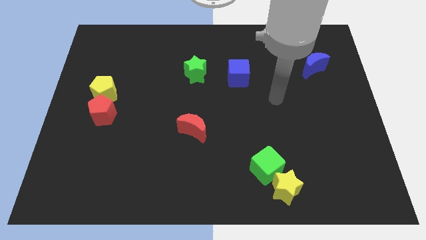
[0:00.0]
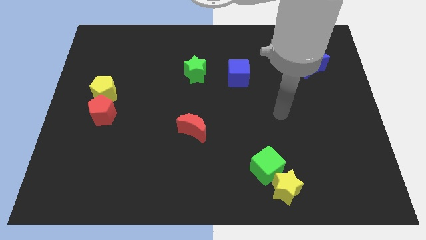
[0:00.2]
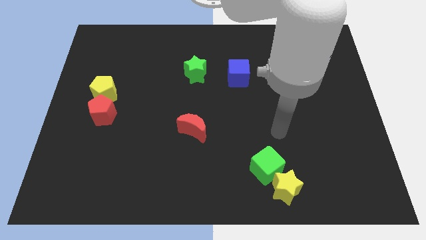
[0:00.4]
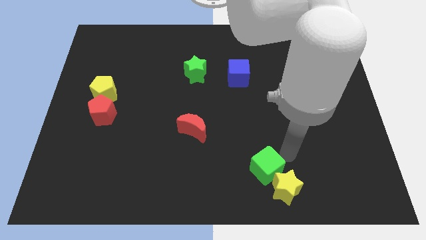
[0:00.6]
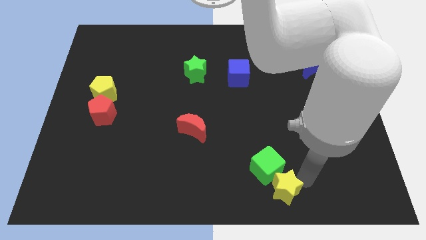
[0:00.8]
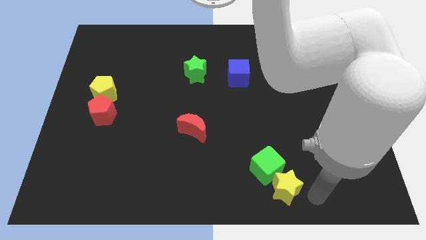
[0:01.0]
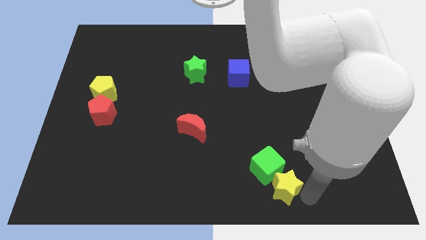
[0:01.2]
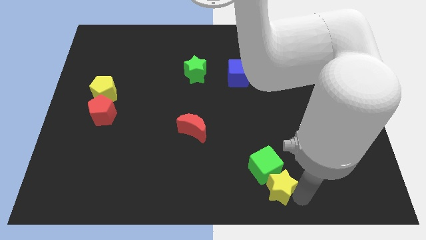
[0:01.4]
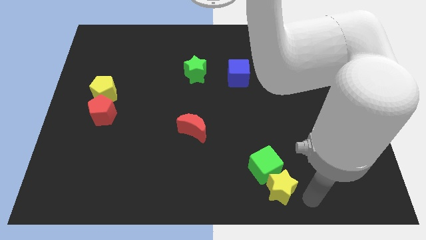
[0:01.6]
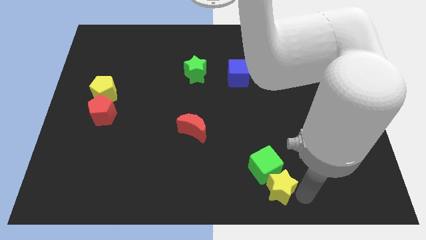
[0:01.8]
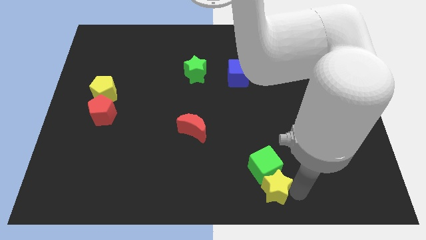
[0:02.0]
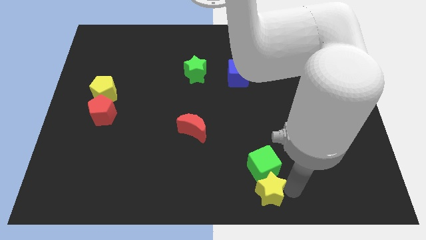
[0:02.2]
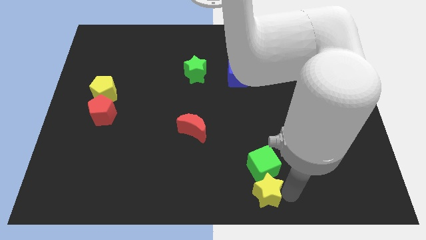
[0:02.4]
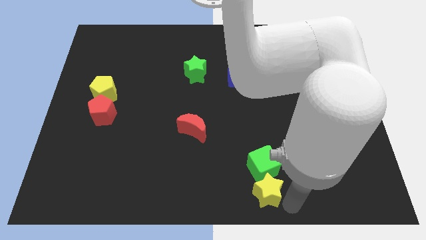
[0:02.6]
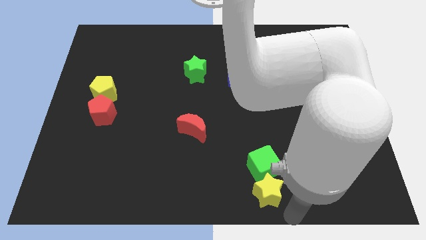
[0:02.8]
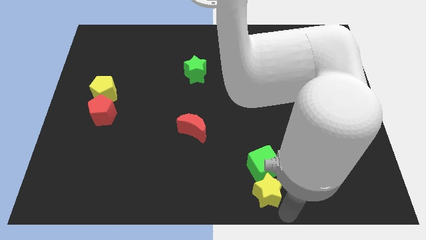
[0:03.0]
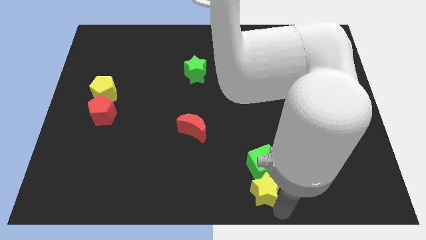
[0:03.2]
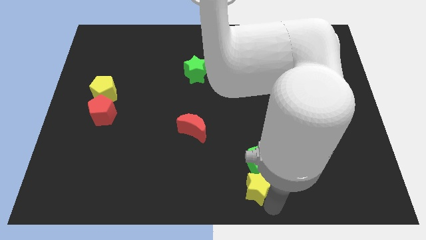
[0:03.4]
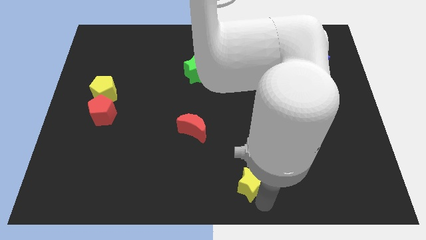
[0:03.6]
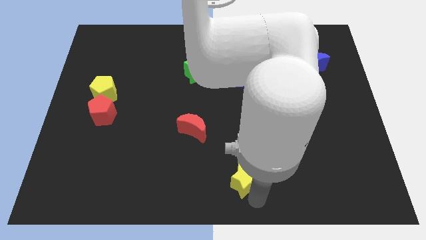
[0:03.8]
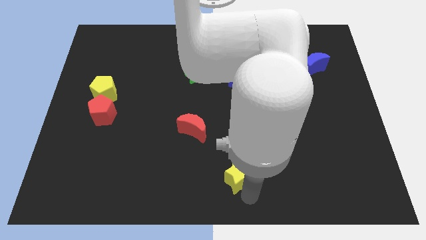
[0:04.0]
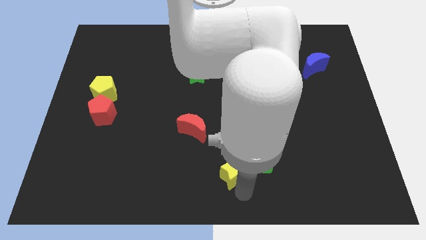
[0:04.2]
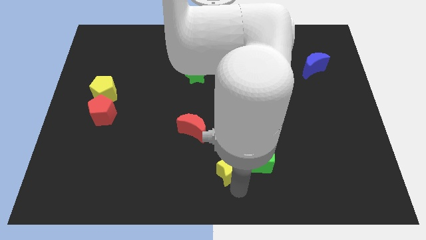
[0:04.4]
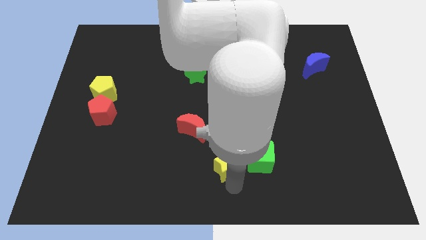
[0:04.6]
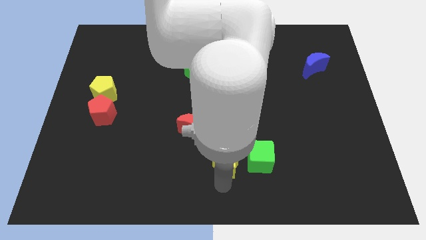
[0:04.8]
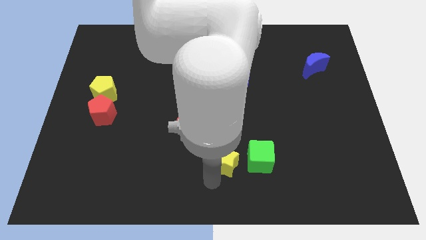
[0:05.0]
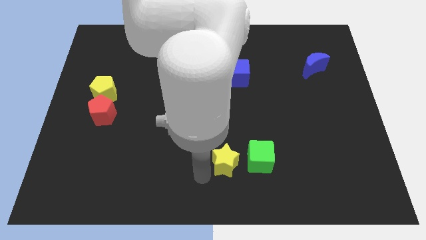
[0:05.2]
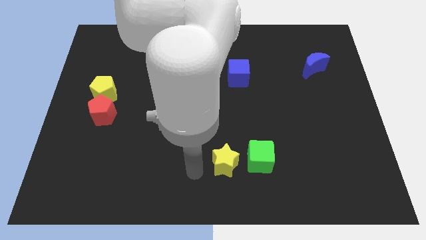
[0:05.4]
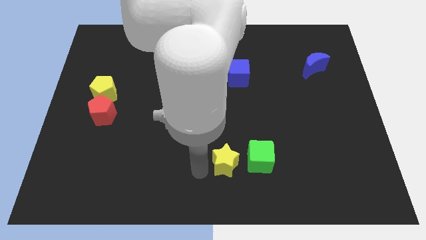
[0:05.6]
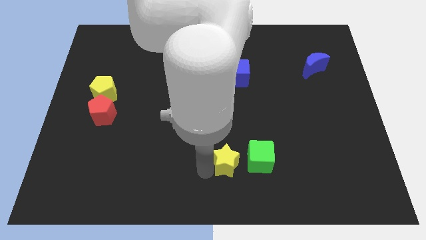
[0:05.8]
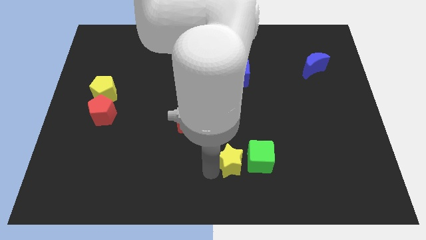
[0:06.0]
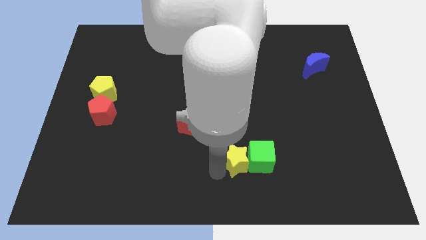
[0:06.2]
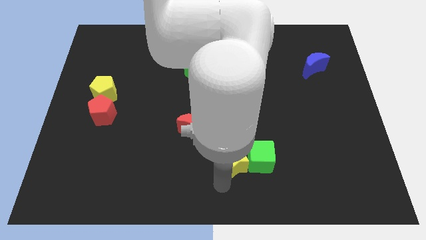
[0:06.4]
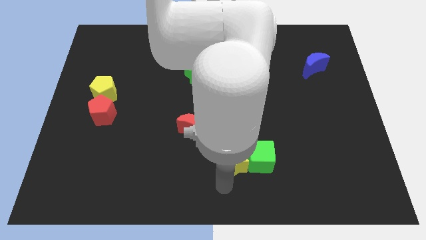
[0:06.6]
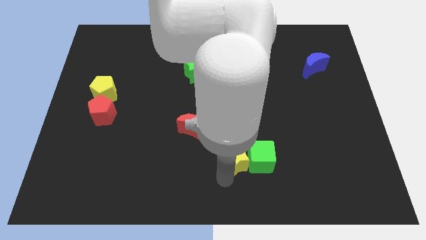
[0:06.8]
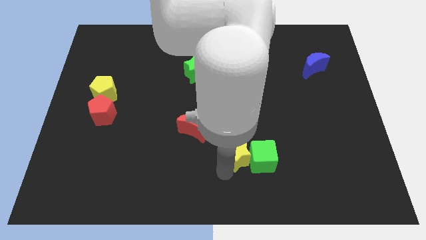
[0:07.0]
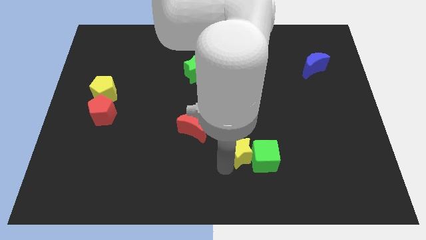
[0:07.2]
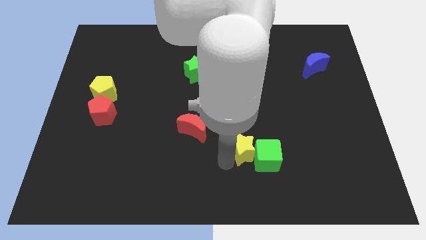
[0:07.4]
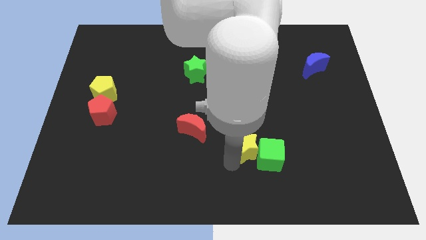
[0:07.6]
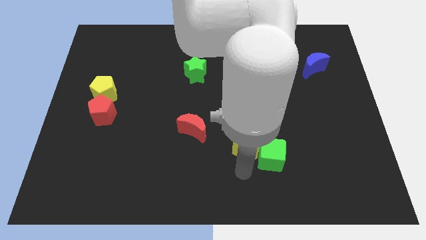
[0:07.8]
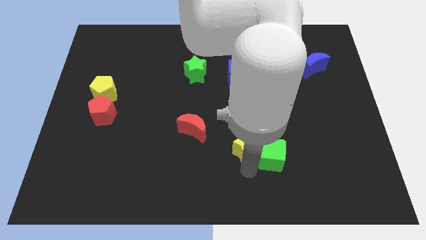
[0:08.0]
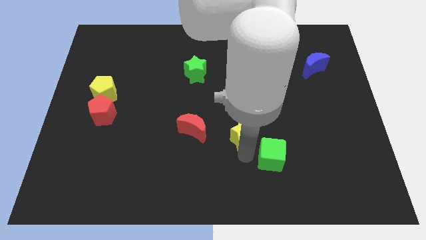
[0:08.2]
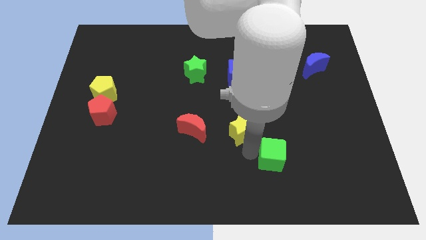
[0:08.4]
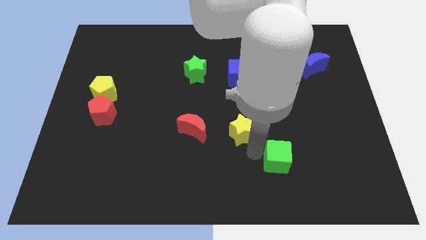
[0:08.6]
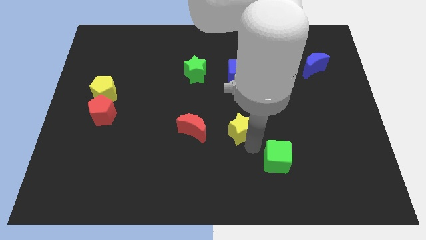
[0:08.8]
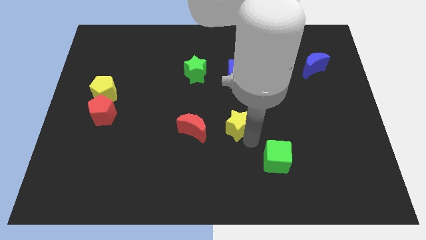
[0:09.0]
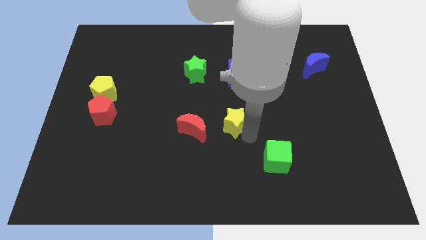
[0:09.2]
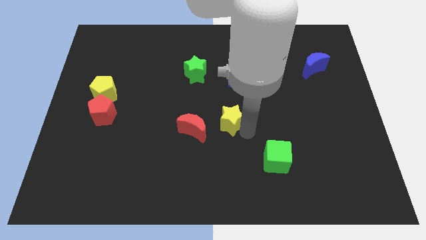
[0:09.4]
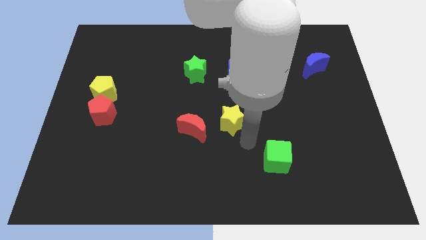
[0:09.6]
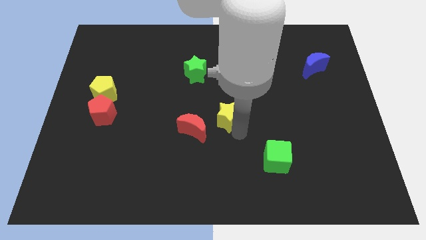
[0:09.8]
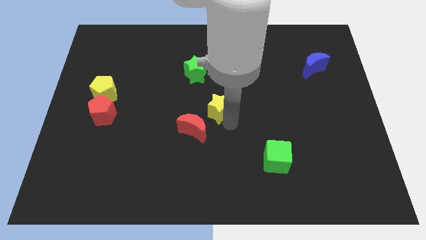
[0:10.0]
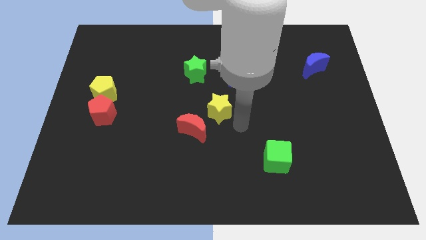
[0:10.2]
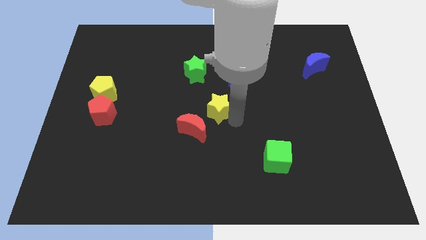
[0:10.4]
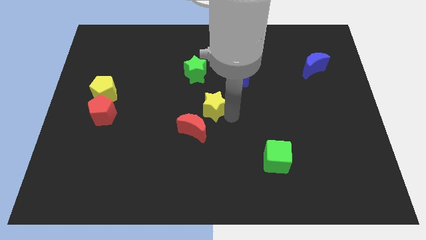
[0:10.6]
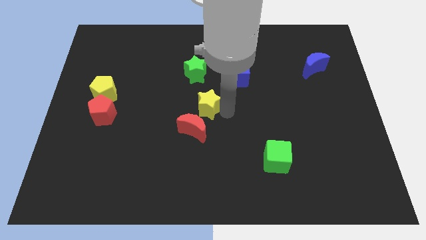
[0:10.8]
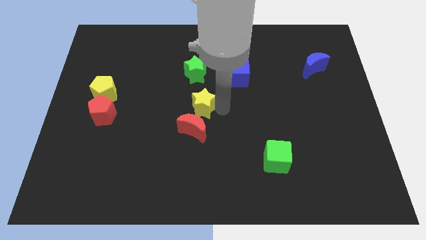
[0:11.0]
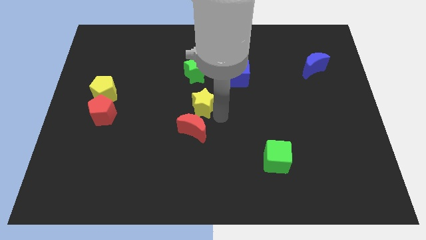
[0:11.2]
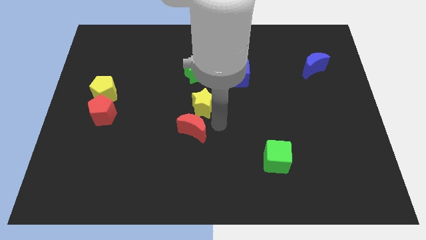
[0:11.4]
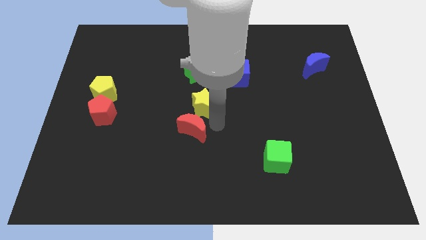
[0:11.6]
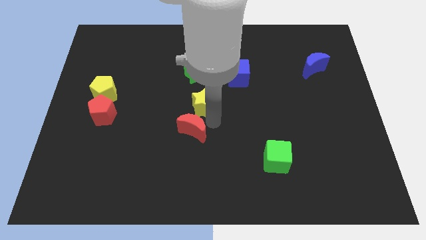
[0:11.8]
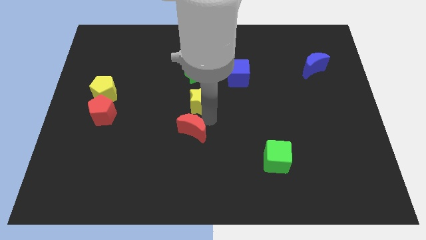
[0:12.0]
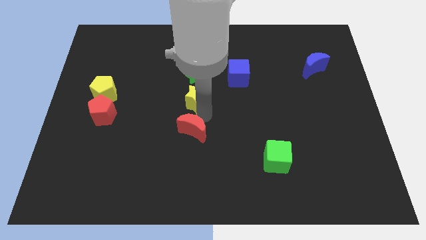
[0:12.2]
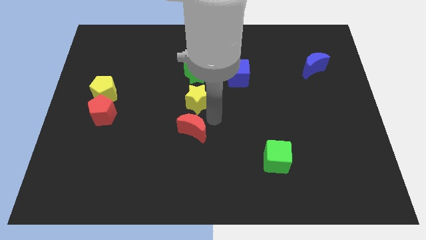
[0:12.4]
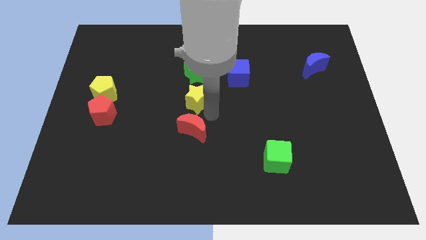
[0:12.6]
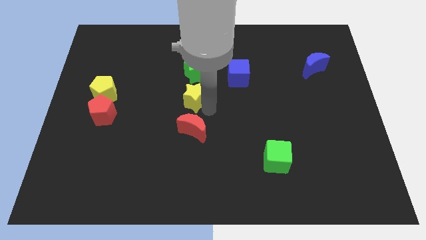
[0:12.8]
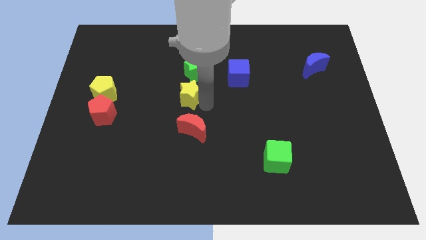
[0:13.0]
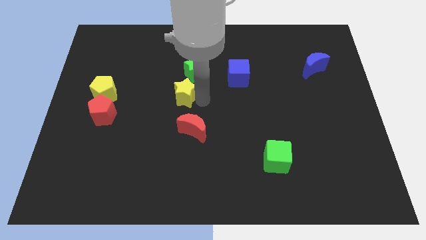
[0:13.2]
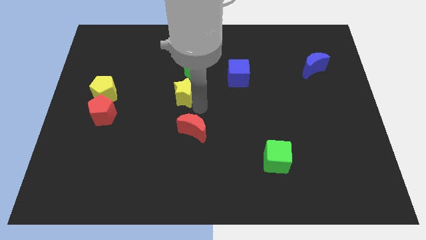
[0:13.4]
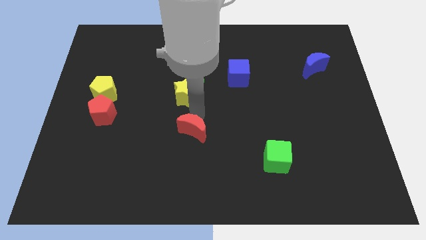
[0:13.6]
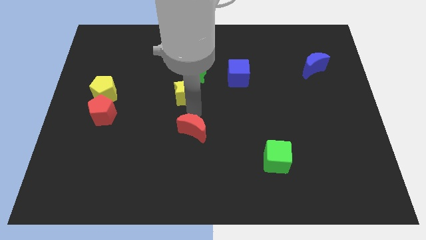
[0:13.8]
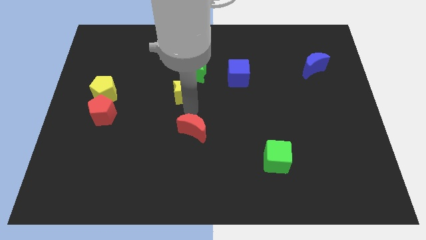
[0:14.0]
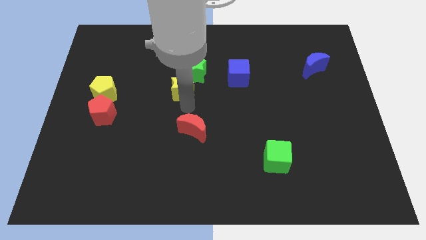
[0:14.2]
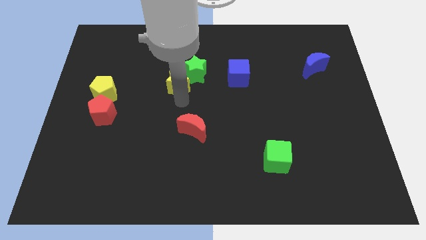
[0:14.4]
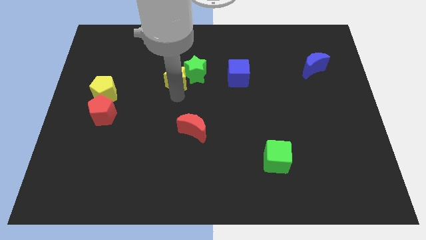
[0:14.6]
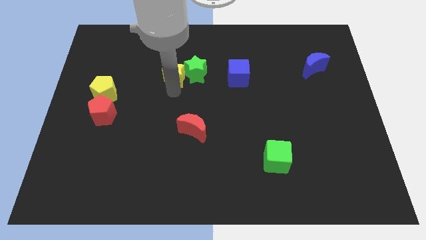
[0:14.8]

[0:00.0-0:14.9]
slide the yellow star diagonally up and to the left of the green star
